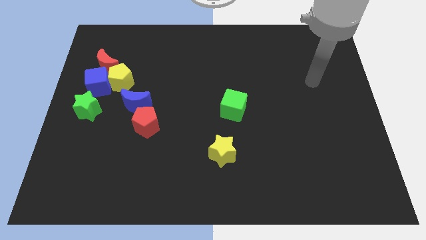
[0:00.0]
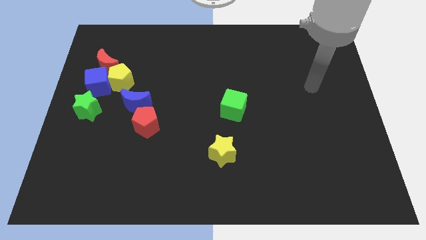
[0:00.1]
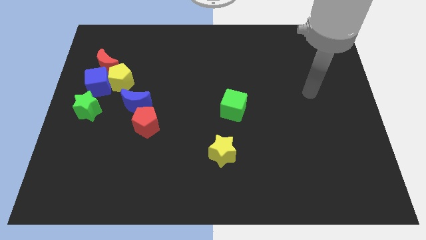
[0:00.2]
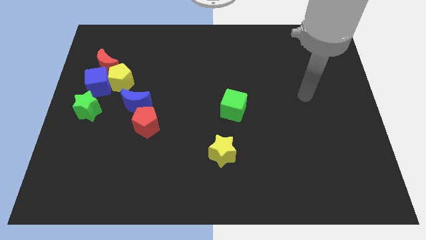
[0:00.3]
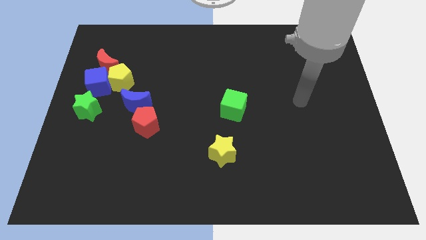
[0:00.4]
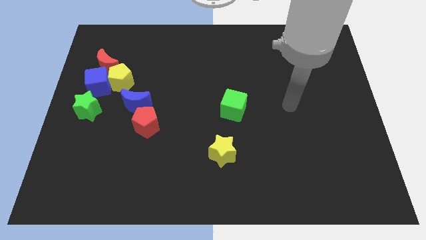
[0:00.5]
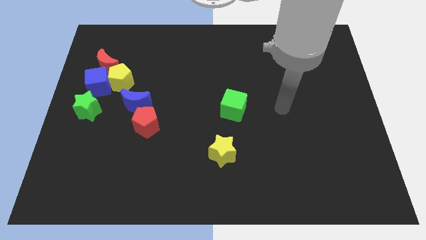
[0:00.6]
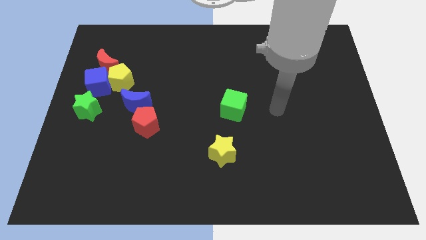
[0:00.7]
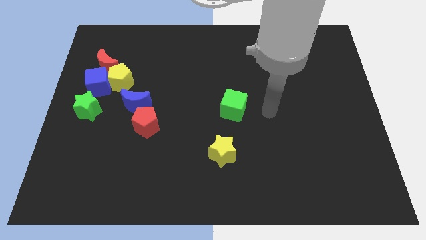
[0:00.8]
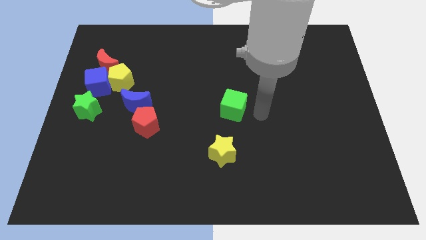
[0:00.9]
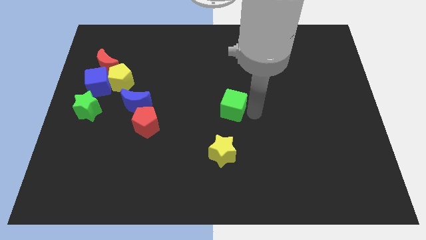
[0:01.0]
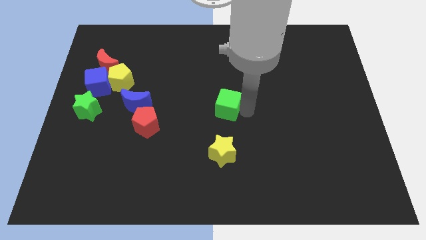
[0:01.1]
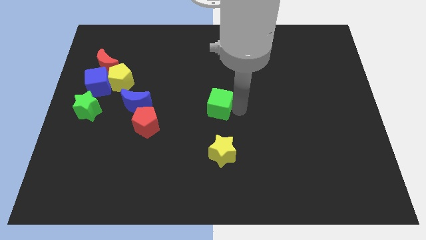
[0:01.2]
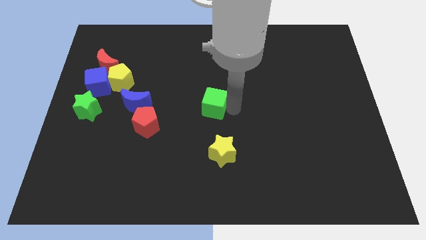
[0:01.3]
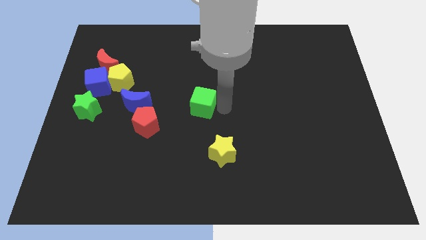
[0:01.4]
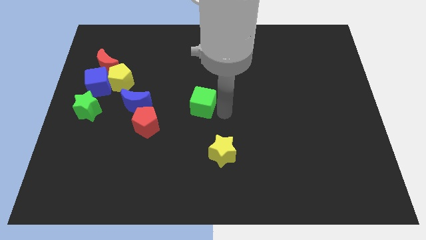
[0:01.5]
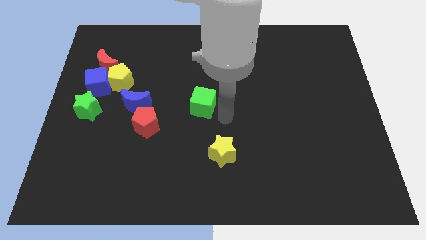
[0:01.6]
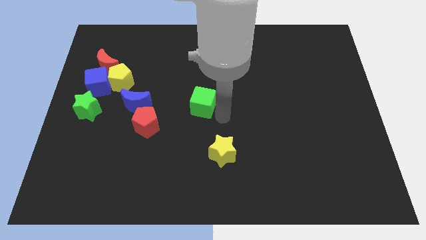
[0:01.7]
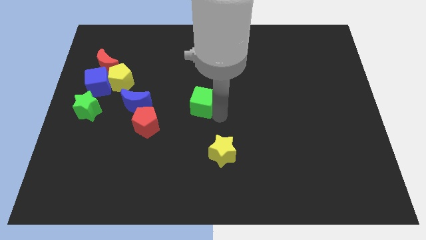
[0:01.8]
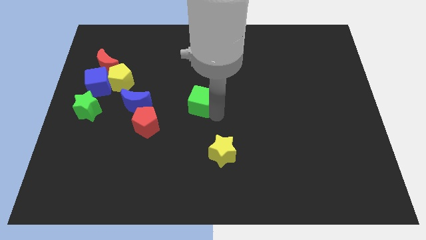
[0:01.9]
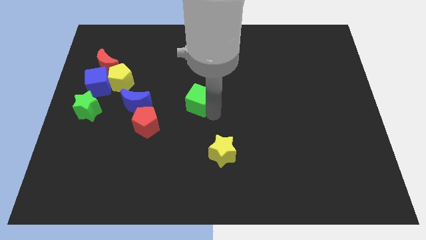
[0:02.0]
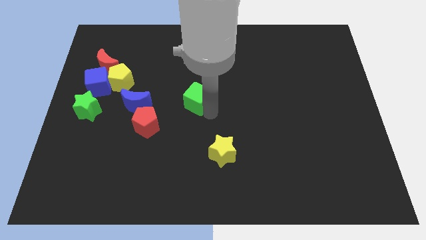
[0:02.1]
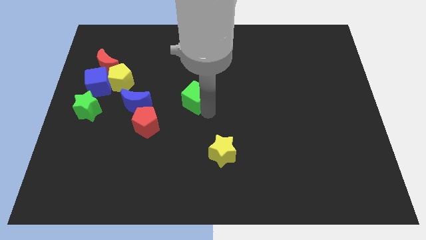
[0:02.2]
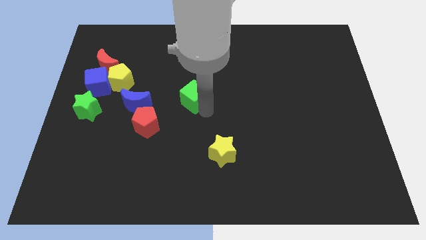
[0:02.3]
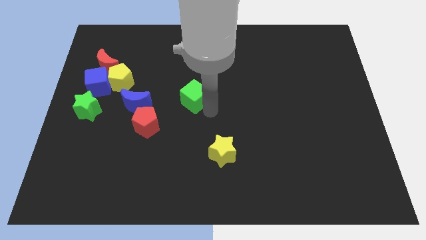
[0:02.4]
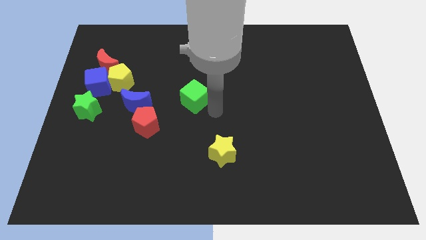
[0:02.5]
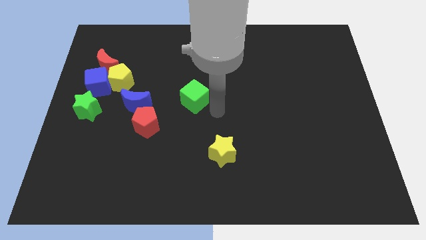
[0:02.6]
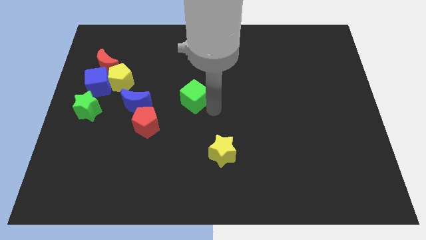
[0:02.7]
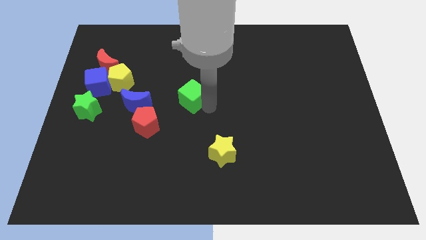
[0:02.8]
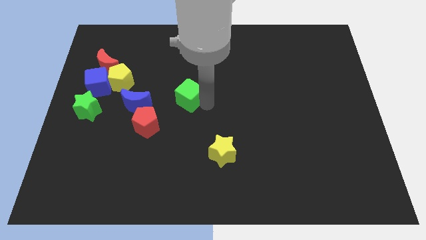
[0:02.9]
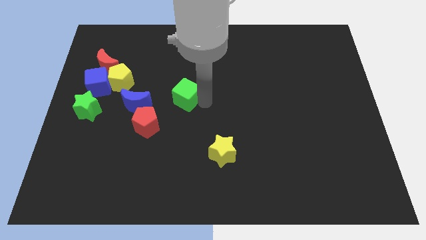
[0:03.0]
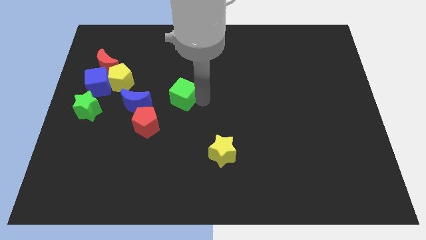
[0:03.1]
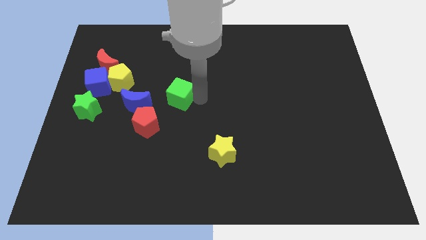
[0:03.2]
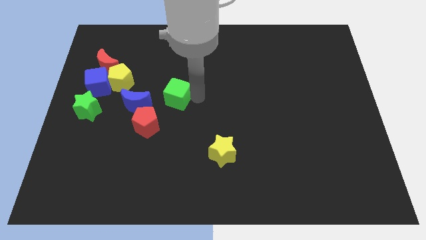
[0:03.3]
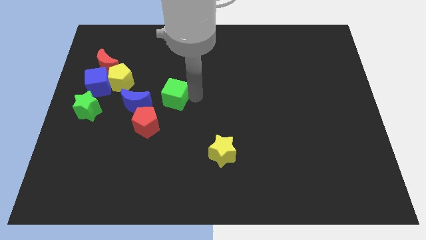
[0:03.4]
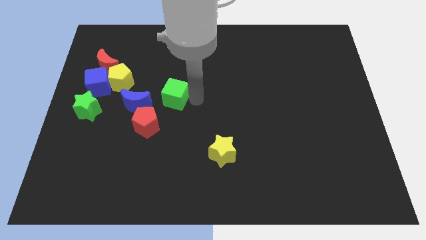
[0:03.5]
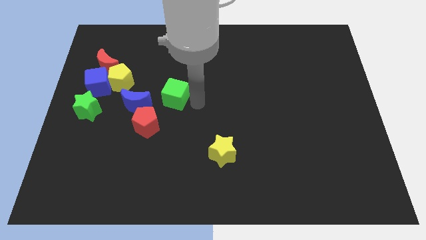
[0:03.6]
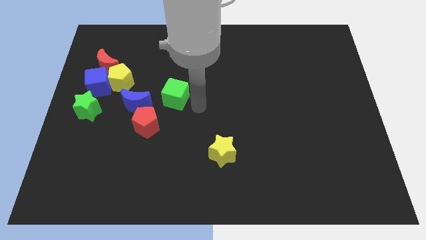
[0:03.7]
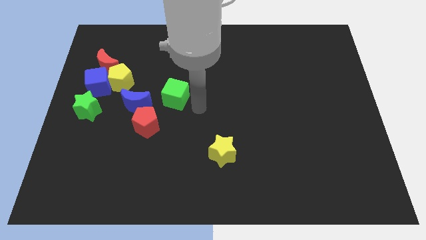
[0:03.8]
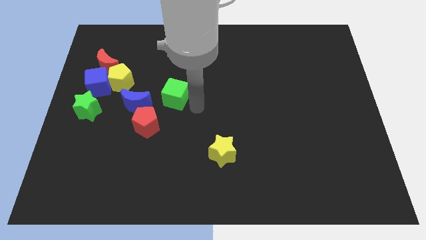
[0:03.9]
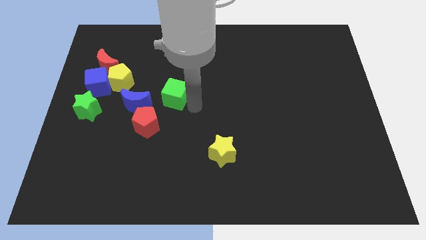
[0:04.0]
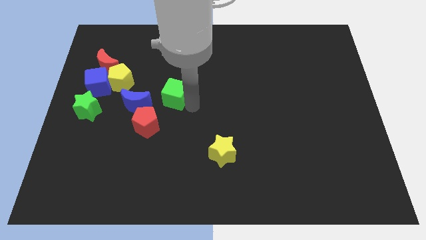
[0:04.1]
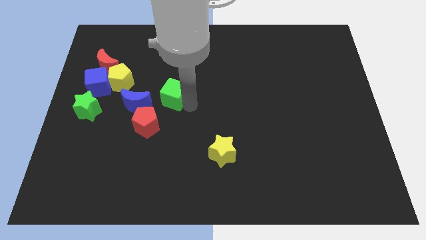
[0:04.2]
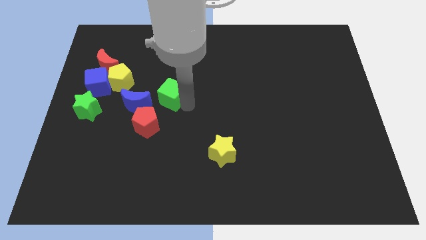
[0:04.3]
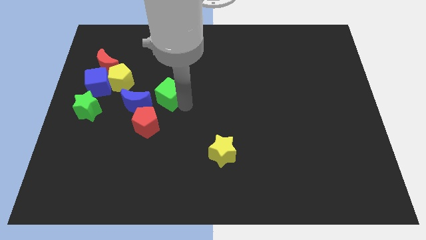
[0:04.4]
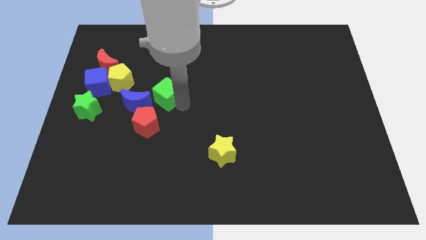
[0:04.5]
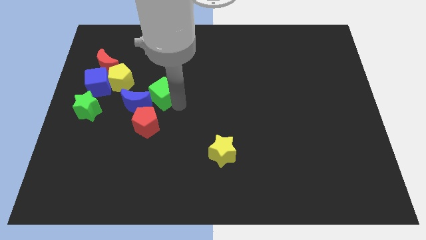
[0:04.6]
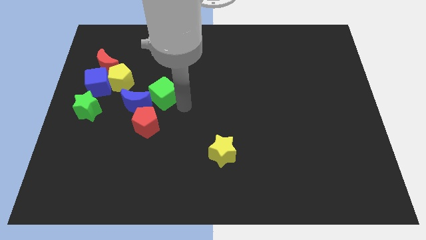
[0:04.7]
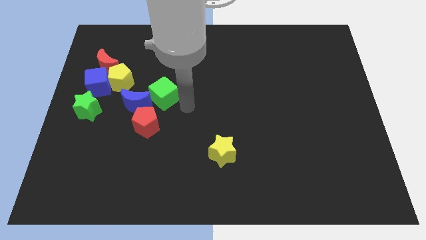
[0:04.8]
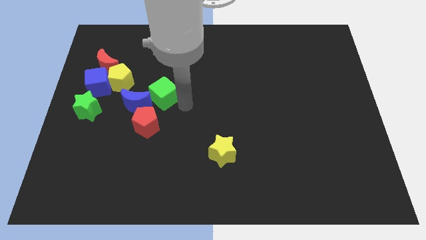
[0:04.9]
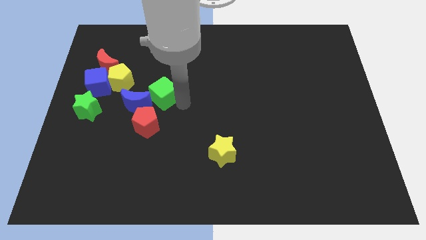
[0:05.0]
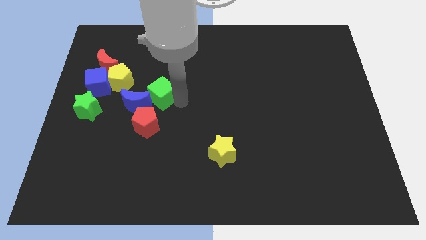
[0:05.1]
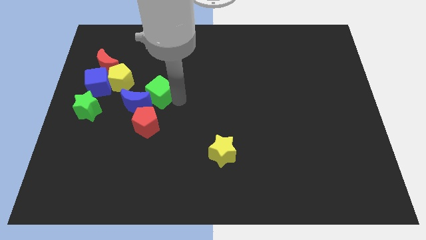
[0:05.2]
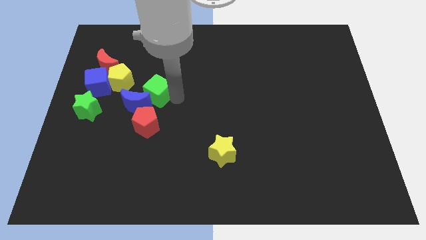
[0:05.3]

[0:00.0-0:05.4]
slide the green cube to the right side of the blue cube

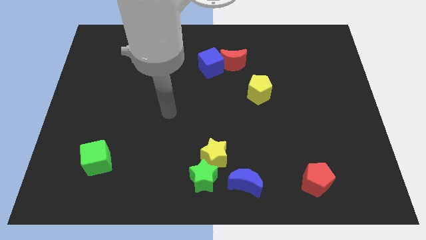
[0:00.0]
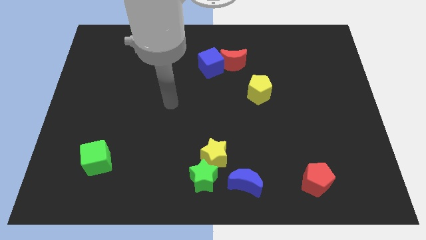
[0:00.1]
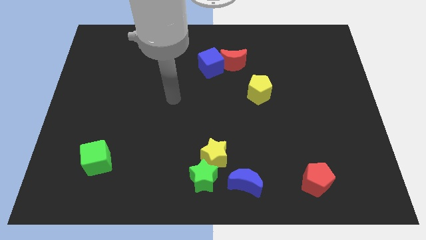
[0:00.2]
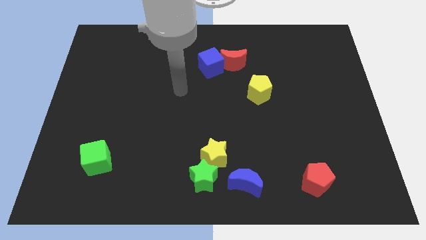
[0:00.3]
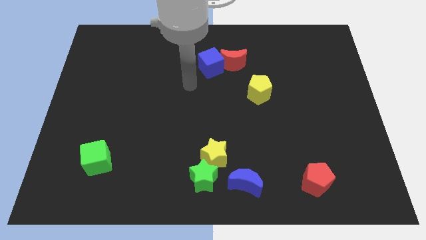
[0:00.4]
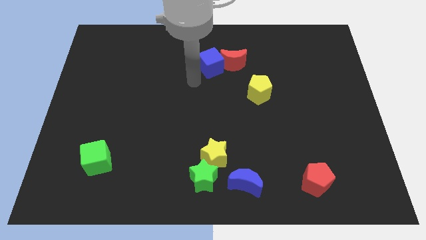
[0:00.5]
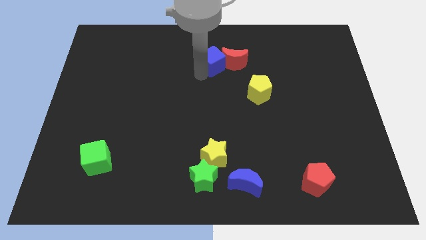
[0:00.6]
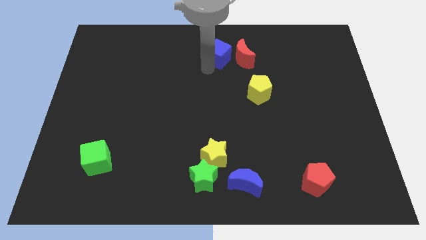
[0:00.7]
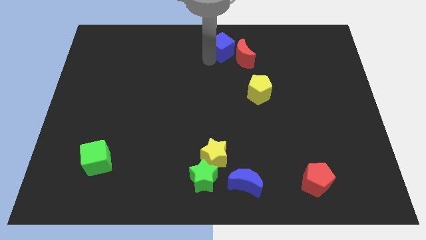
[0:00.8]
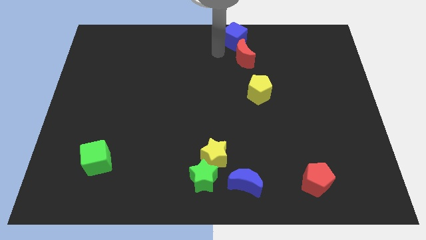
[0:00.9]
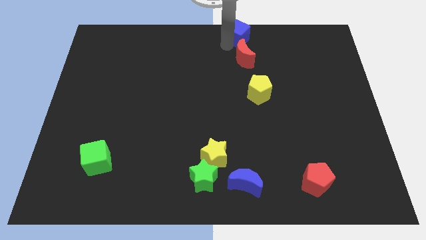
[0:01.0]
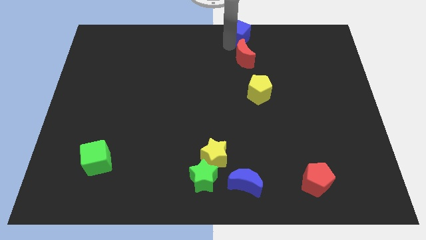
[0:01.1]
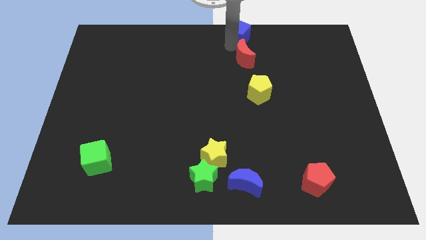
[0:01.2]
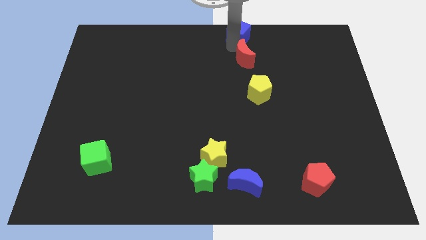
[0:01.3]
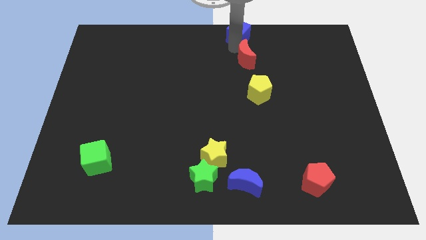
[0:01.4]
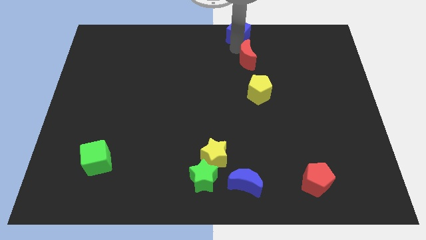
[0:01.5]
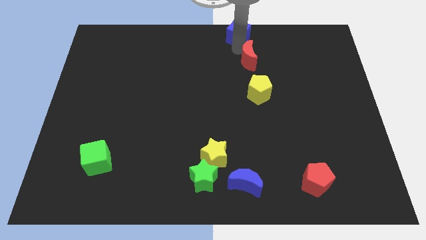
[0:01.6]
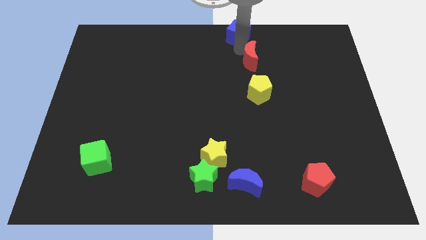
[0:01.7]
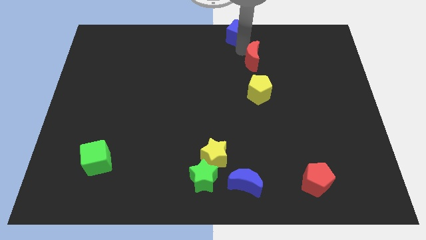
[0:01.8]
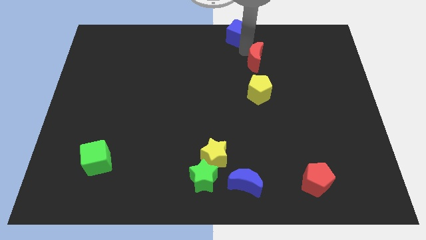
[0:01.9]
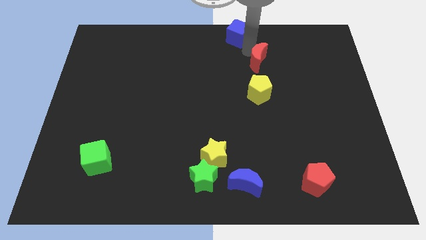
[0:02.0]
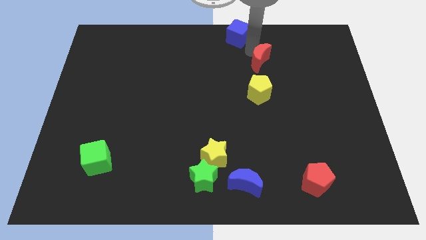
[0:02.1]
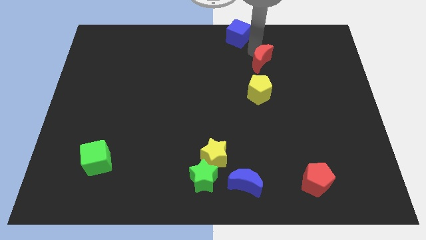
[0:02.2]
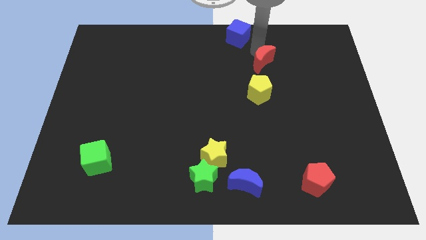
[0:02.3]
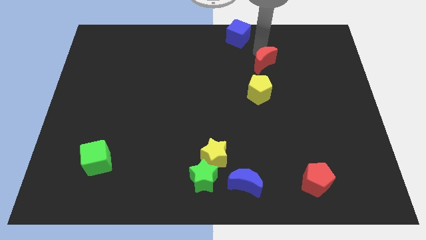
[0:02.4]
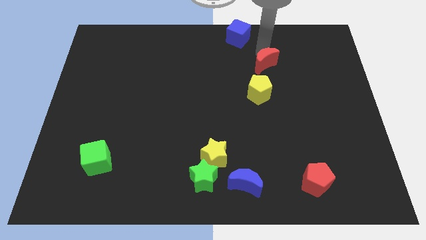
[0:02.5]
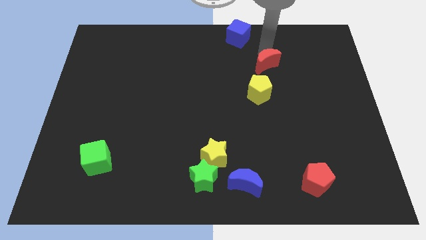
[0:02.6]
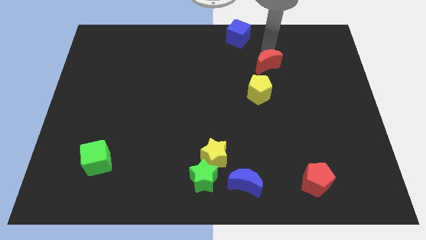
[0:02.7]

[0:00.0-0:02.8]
put the red moon to the top right side of the yellow pentagon
